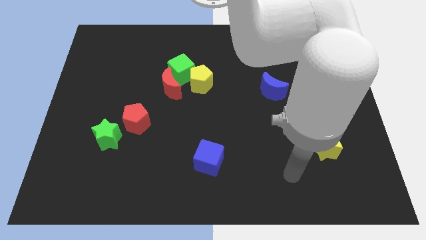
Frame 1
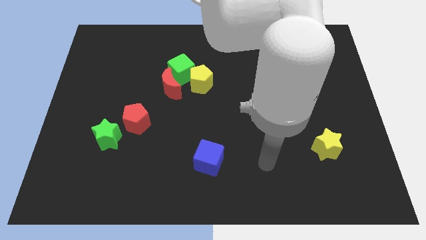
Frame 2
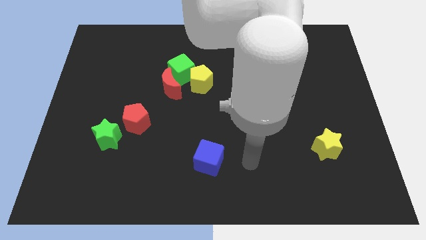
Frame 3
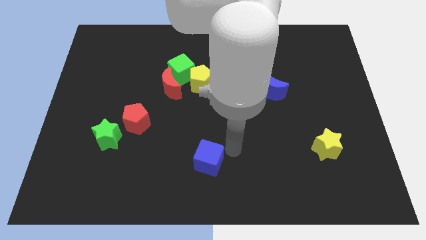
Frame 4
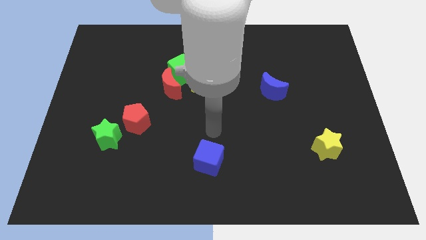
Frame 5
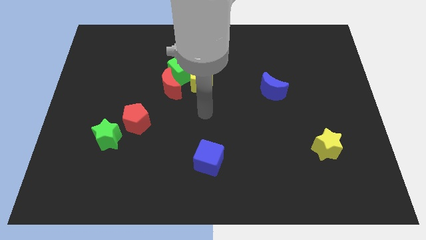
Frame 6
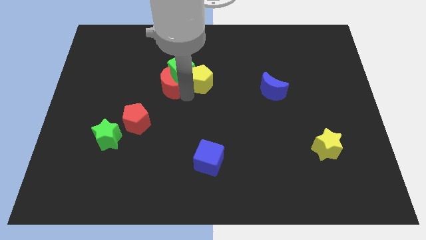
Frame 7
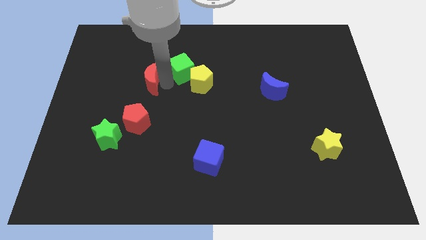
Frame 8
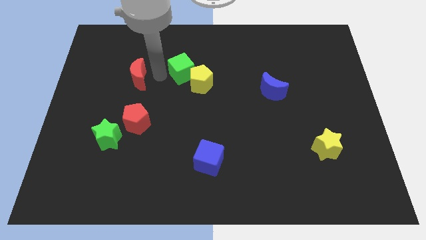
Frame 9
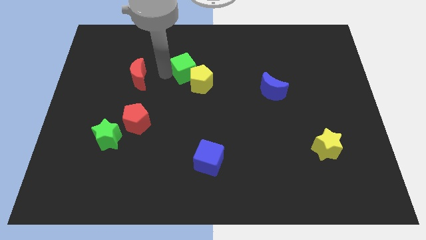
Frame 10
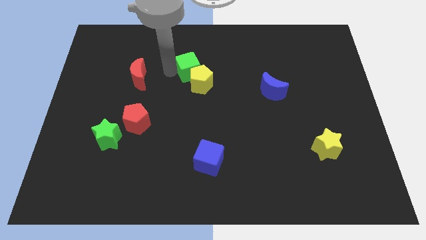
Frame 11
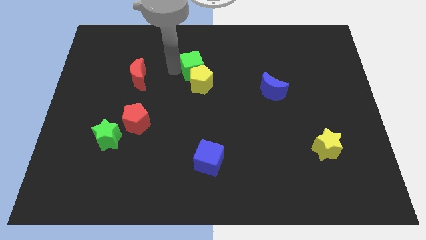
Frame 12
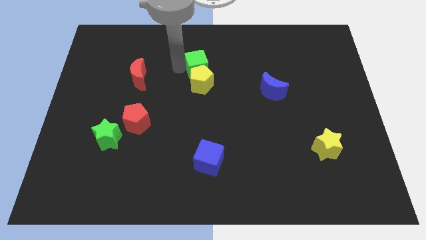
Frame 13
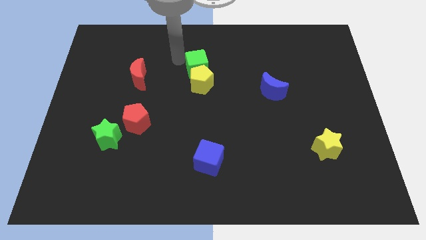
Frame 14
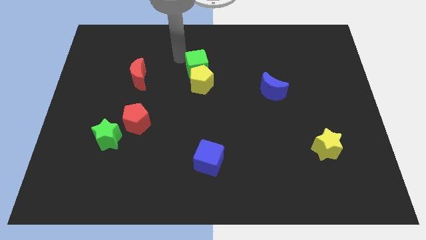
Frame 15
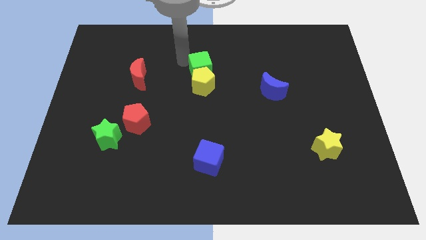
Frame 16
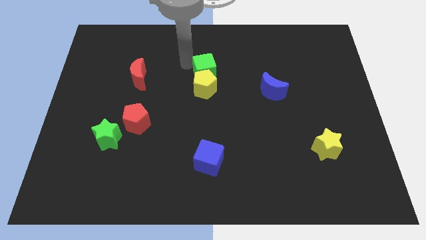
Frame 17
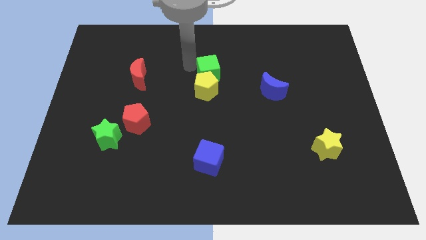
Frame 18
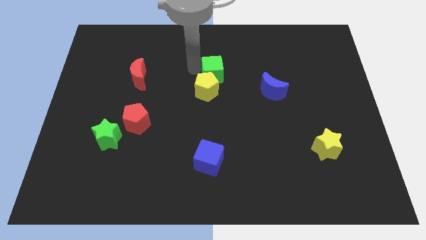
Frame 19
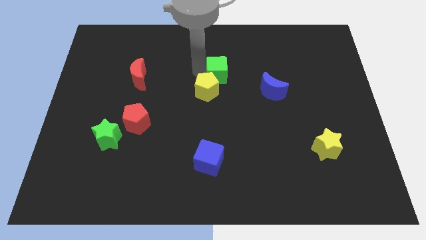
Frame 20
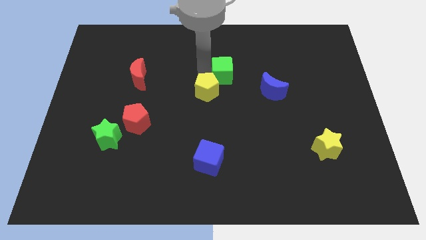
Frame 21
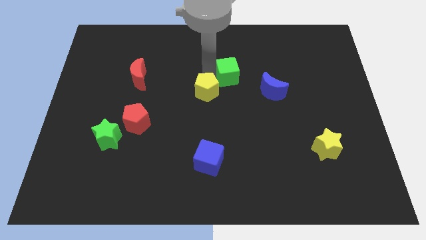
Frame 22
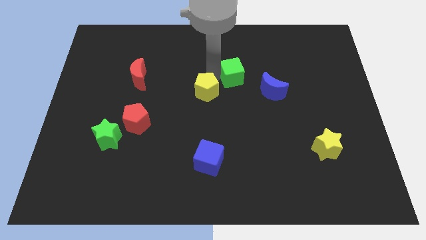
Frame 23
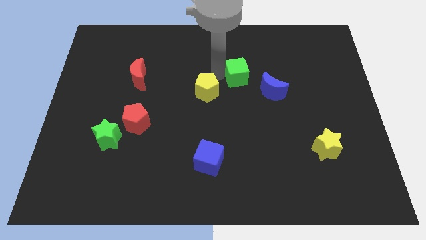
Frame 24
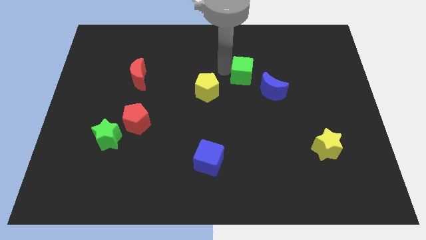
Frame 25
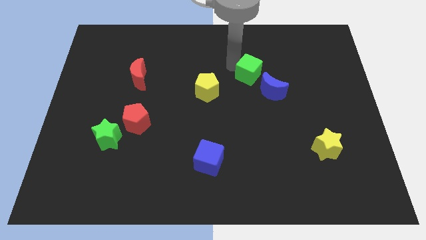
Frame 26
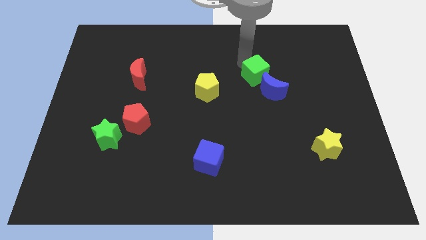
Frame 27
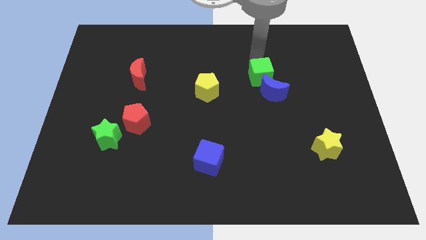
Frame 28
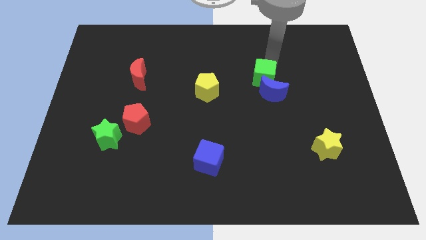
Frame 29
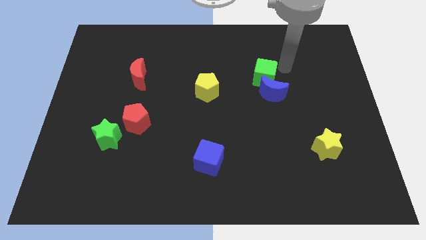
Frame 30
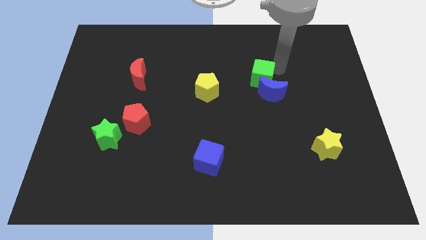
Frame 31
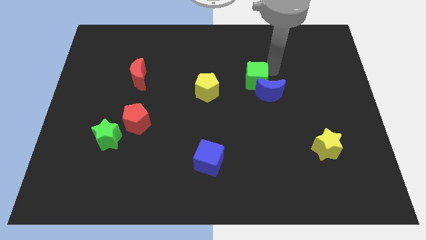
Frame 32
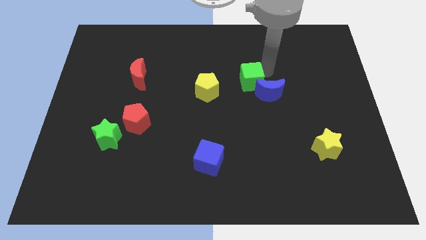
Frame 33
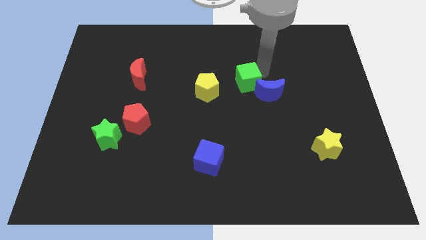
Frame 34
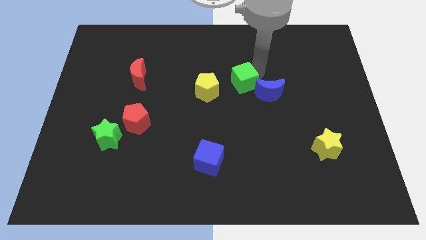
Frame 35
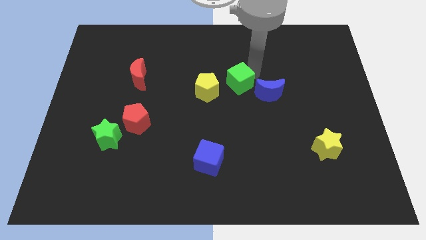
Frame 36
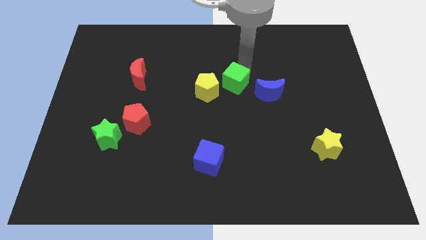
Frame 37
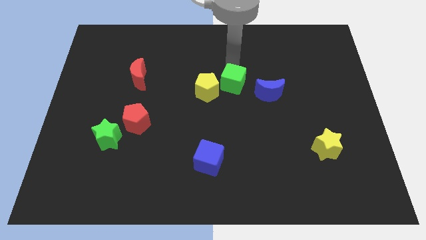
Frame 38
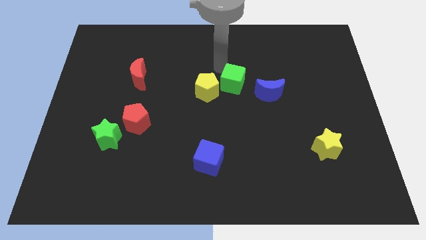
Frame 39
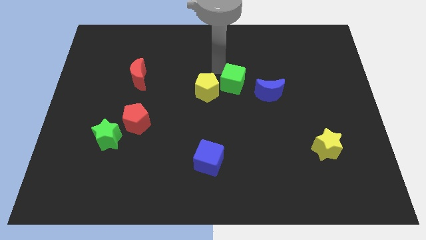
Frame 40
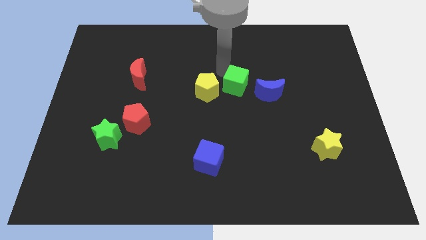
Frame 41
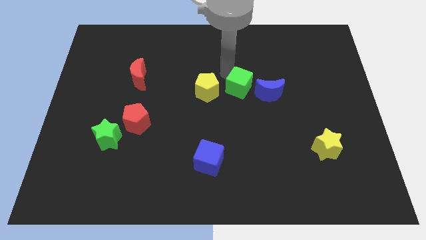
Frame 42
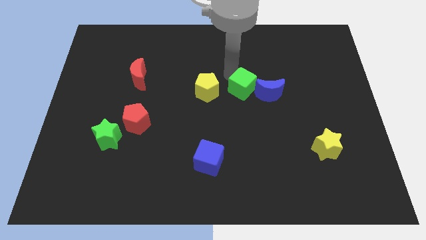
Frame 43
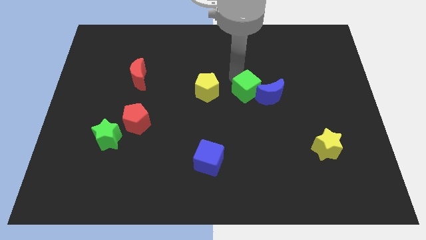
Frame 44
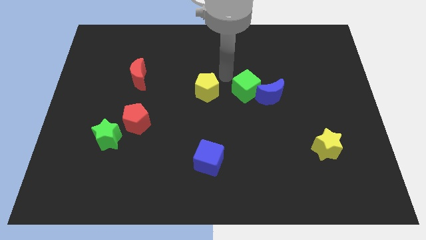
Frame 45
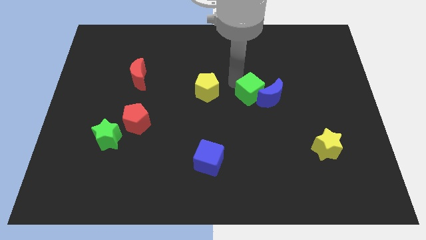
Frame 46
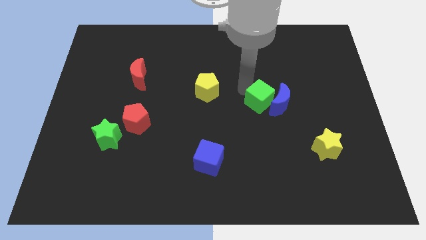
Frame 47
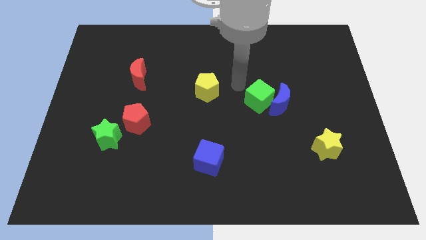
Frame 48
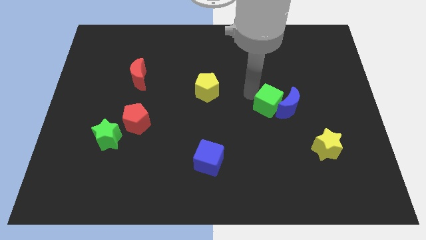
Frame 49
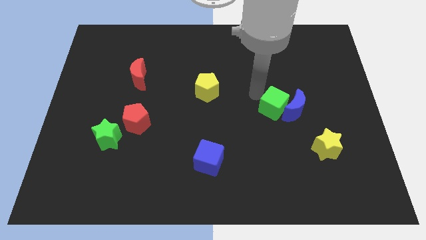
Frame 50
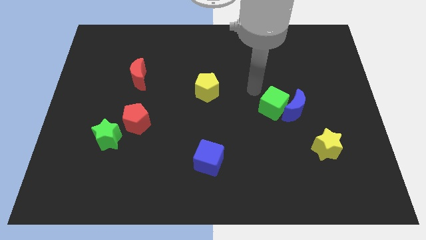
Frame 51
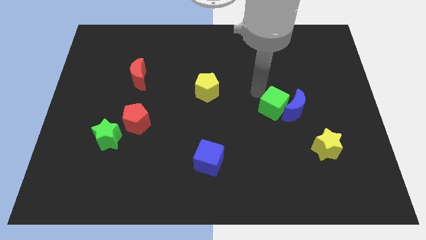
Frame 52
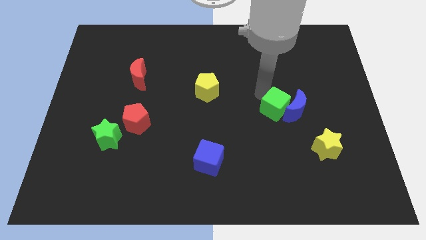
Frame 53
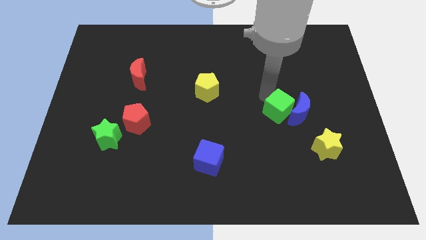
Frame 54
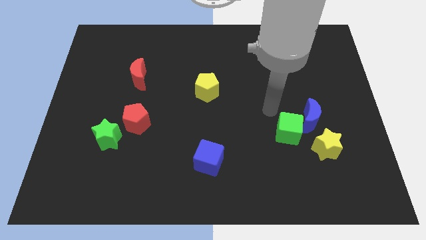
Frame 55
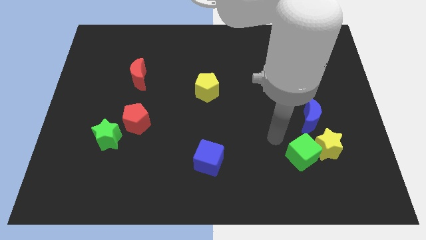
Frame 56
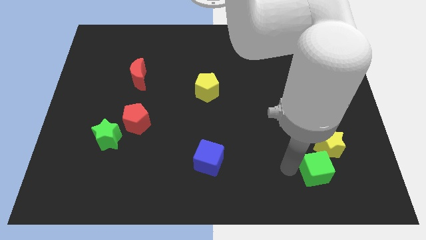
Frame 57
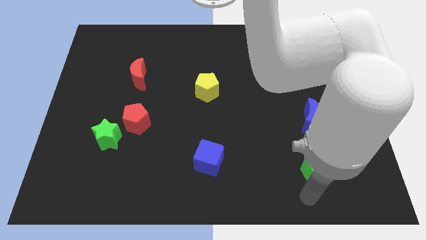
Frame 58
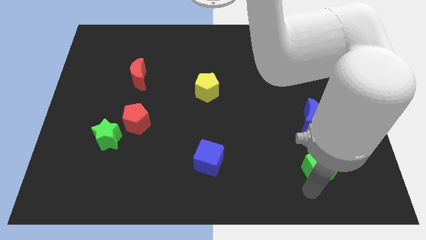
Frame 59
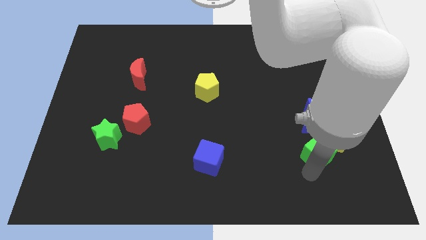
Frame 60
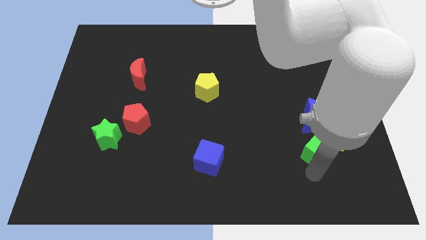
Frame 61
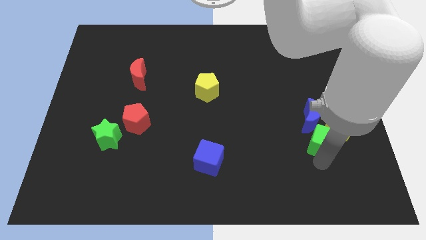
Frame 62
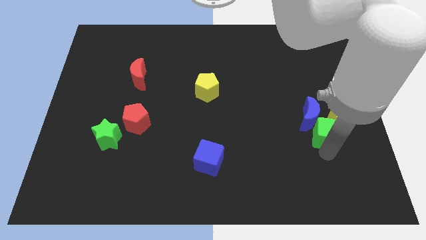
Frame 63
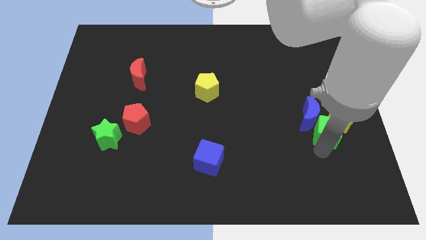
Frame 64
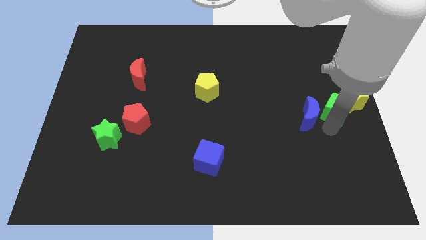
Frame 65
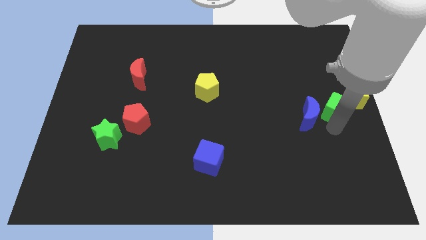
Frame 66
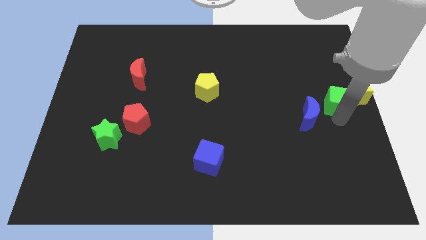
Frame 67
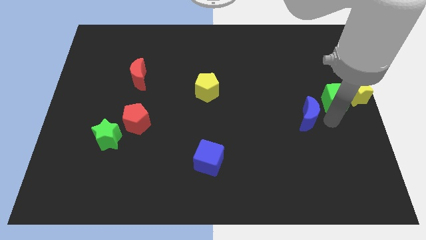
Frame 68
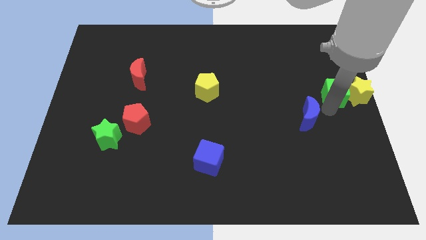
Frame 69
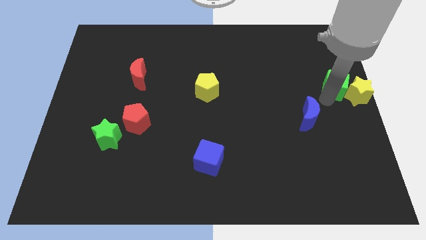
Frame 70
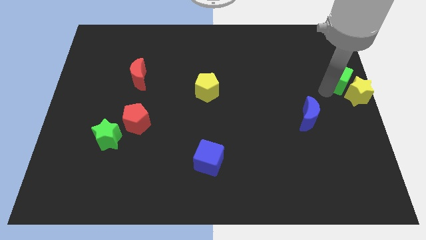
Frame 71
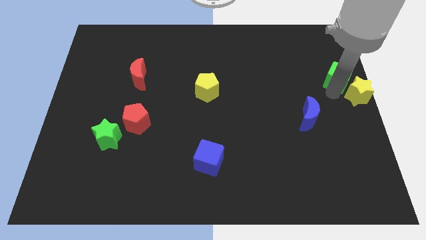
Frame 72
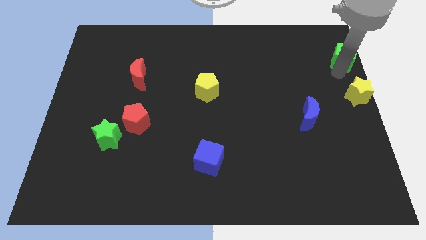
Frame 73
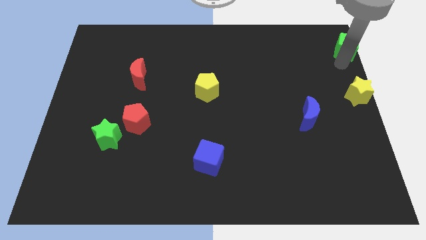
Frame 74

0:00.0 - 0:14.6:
push the green cube to the top right

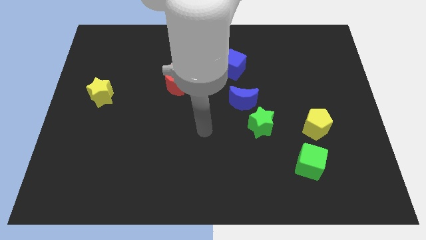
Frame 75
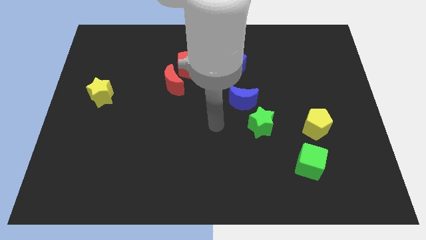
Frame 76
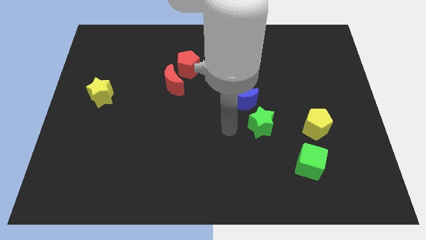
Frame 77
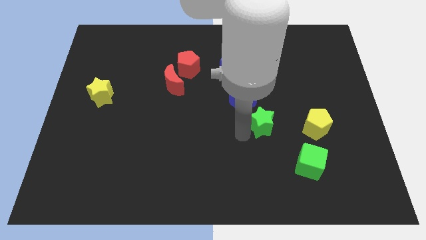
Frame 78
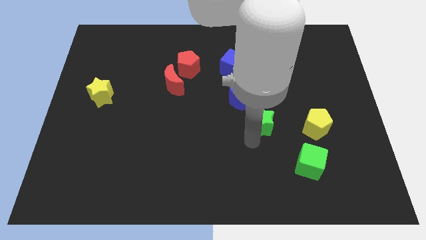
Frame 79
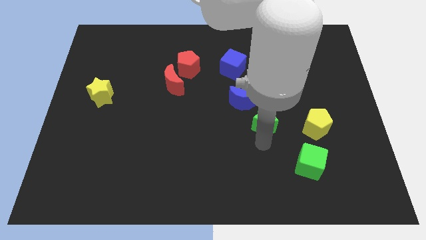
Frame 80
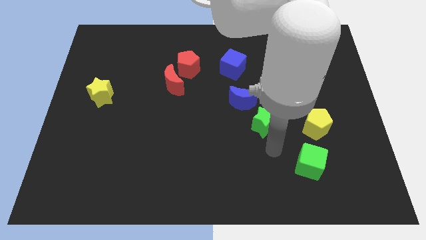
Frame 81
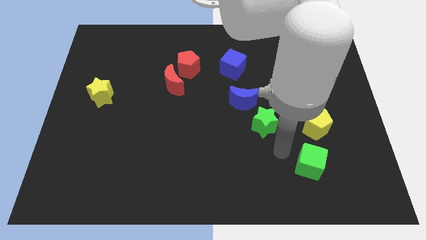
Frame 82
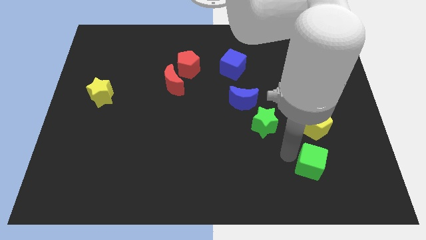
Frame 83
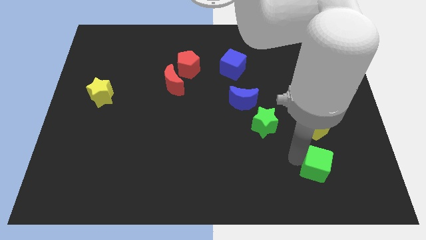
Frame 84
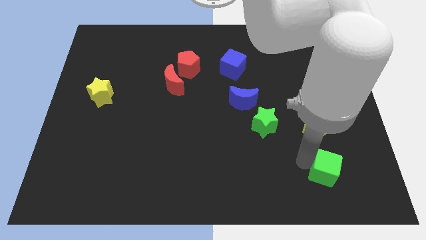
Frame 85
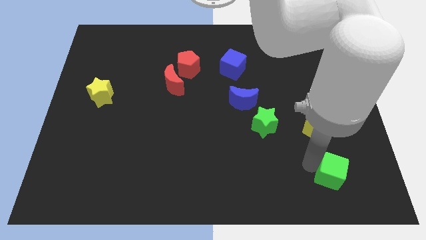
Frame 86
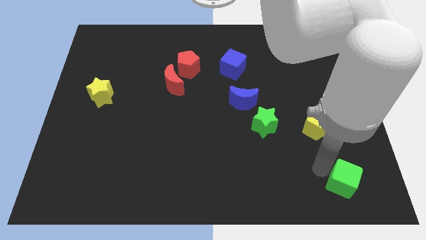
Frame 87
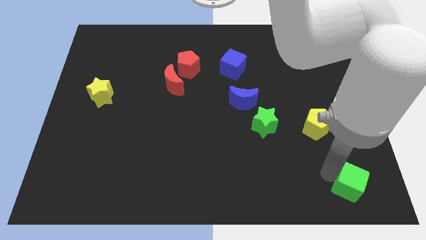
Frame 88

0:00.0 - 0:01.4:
put the green cube to the lower right corner
